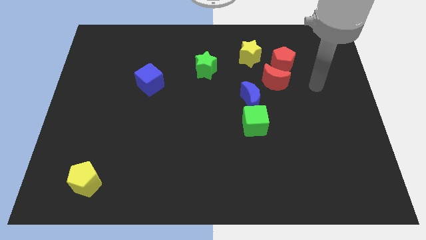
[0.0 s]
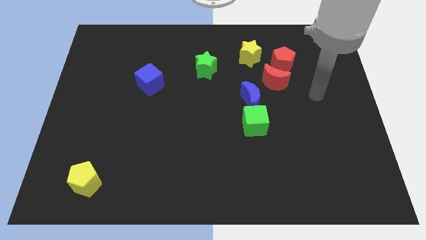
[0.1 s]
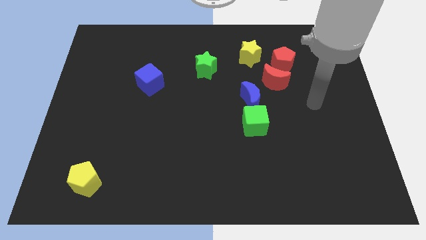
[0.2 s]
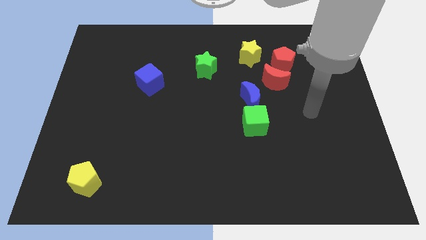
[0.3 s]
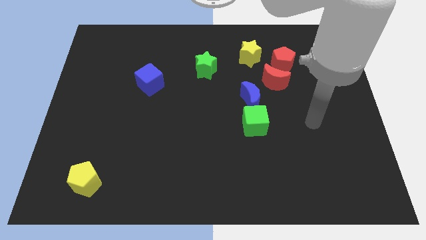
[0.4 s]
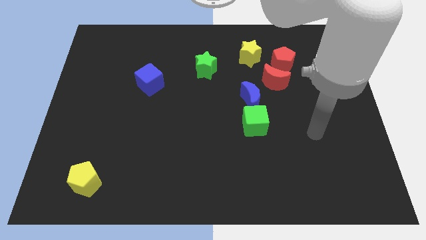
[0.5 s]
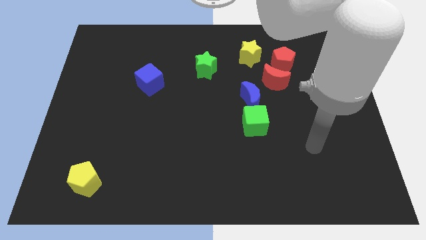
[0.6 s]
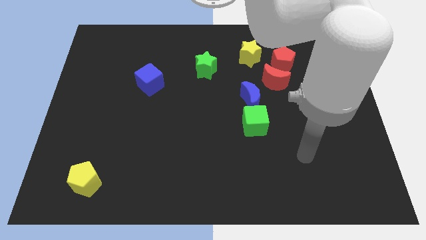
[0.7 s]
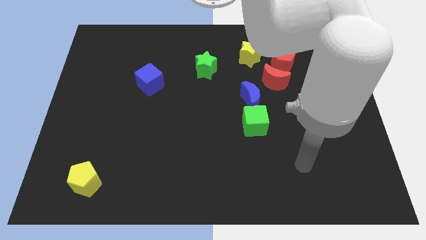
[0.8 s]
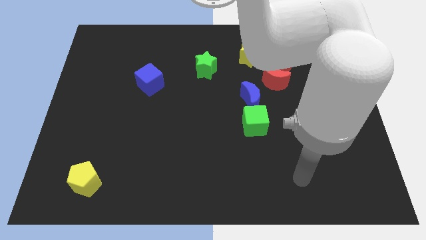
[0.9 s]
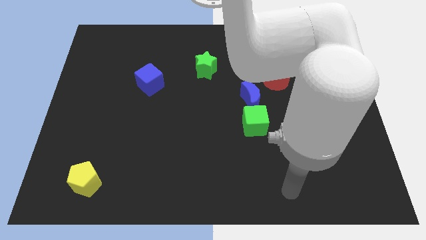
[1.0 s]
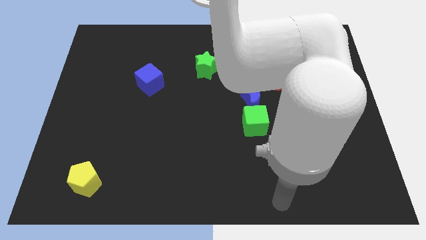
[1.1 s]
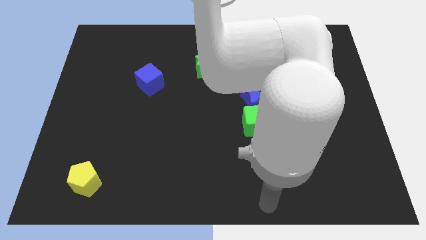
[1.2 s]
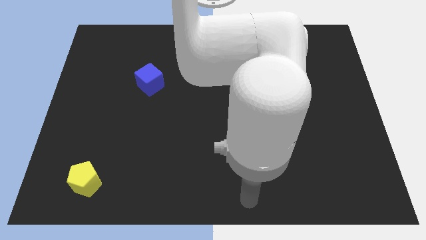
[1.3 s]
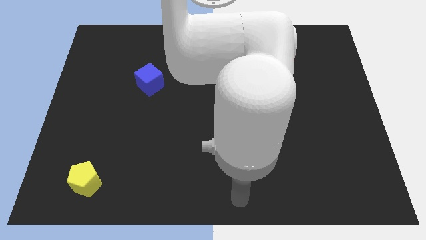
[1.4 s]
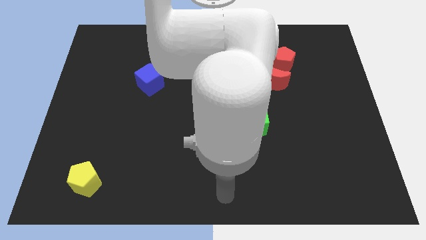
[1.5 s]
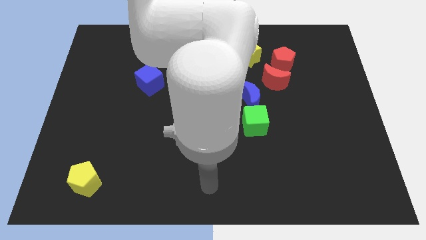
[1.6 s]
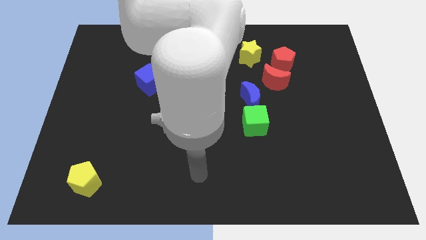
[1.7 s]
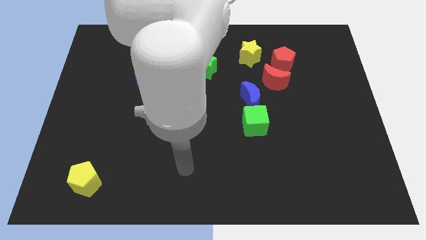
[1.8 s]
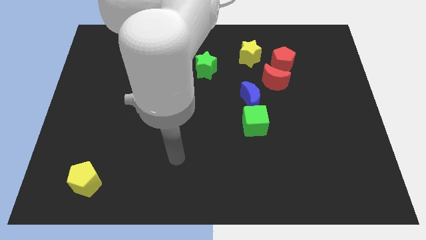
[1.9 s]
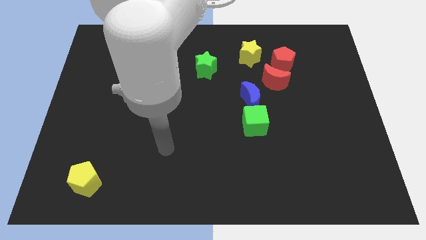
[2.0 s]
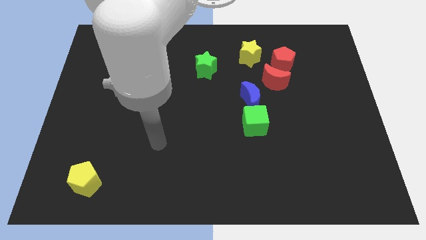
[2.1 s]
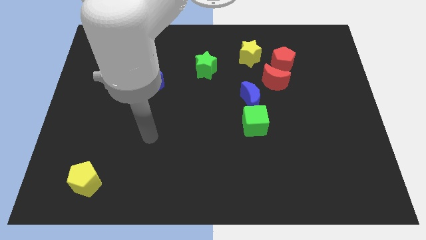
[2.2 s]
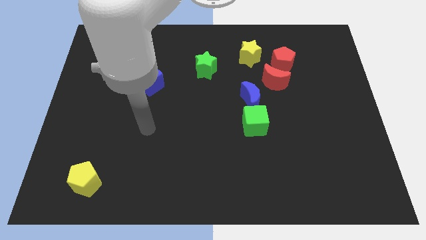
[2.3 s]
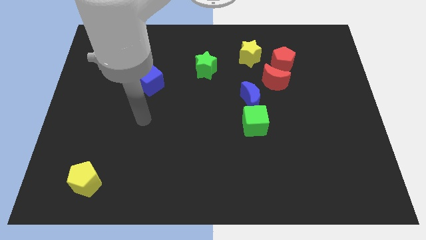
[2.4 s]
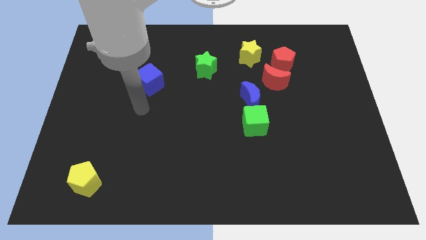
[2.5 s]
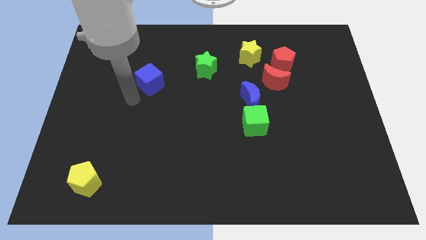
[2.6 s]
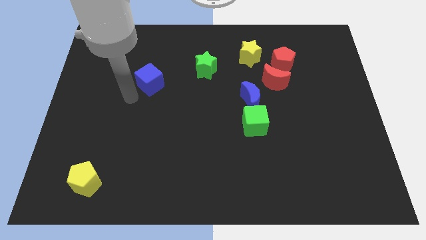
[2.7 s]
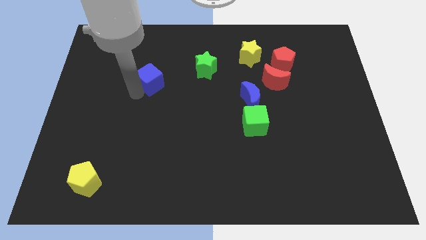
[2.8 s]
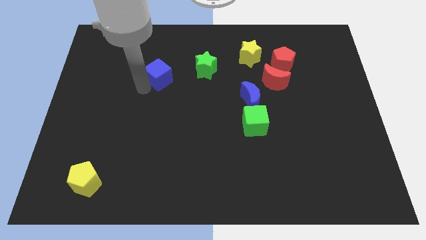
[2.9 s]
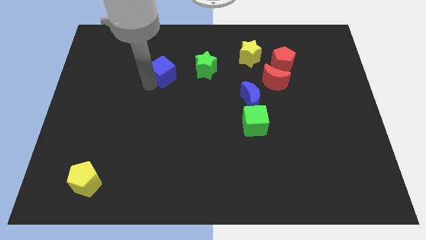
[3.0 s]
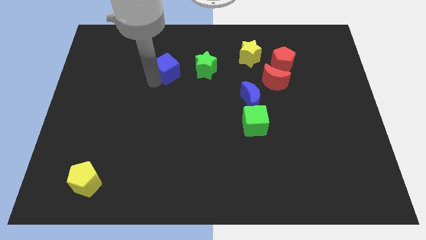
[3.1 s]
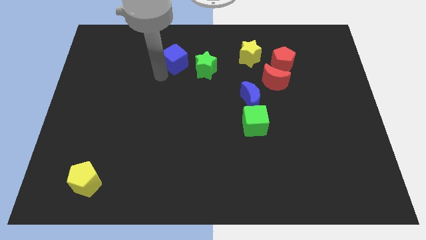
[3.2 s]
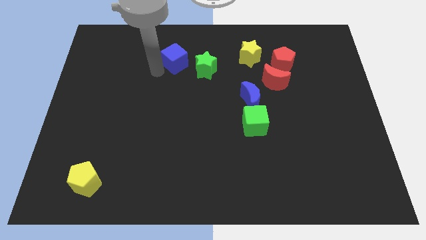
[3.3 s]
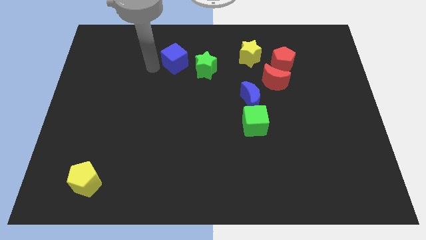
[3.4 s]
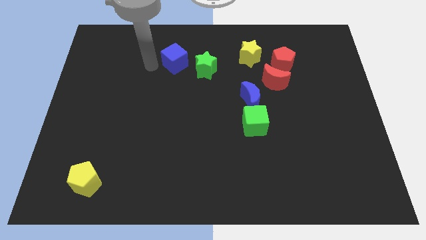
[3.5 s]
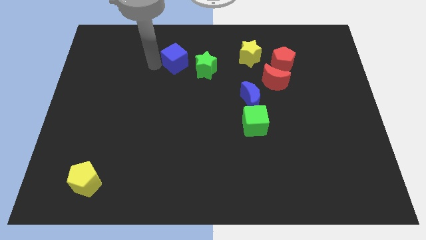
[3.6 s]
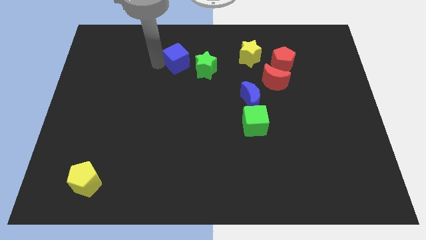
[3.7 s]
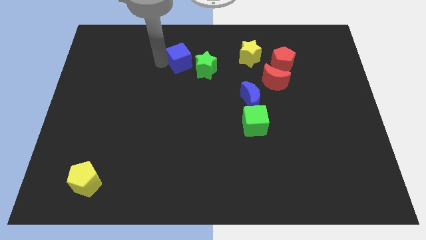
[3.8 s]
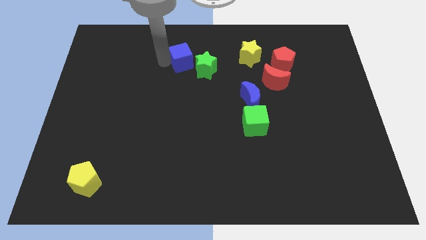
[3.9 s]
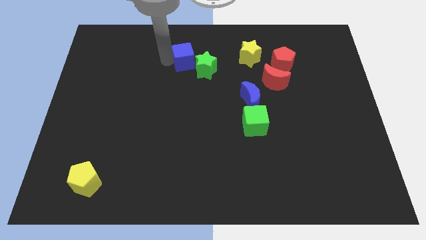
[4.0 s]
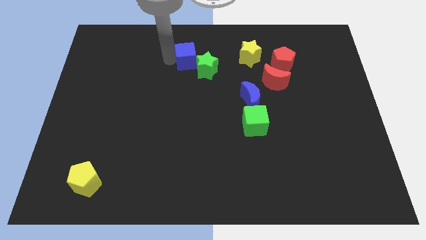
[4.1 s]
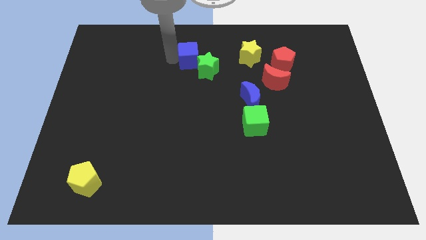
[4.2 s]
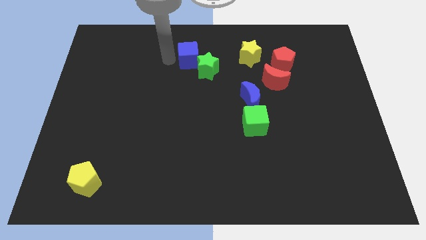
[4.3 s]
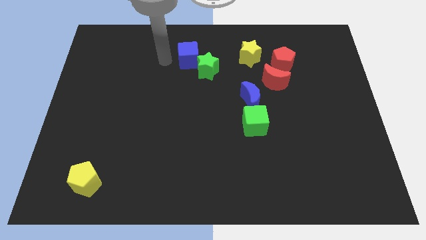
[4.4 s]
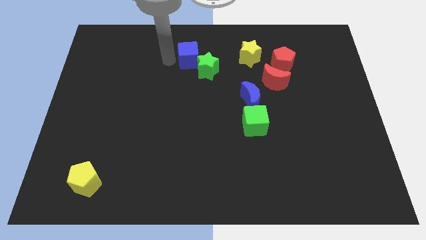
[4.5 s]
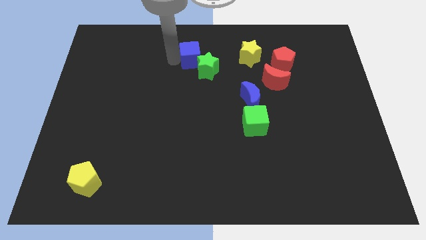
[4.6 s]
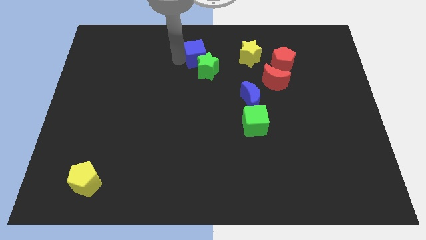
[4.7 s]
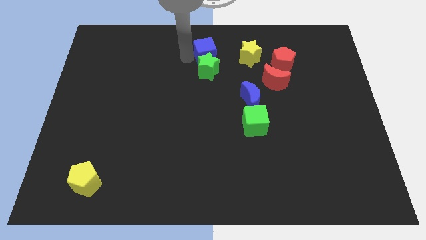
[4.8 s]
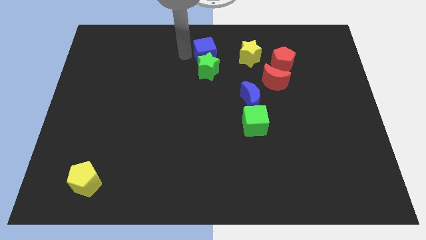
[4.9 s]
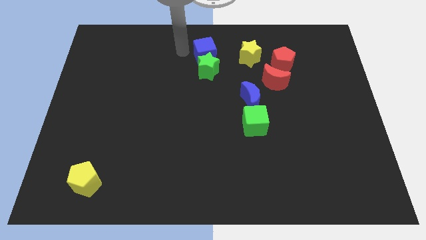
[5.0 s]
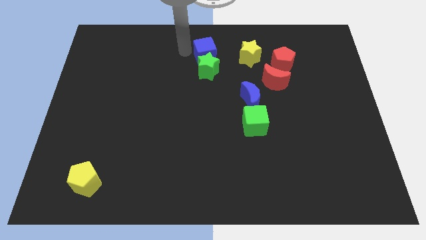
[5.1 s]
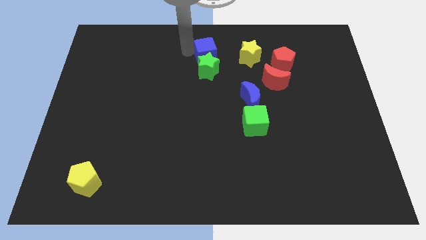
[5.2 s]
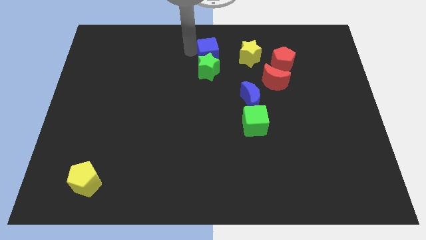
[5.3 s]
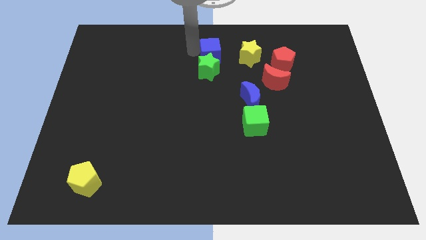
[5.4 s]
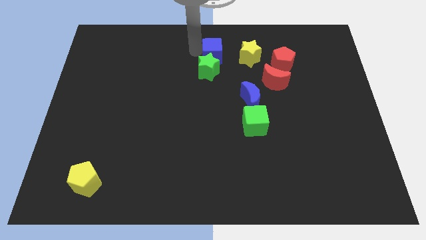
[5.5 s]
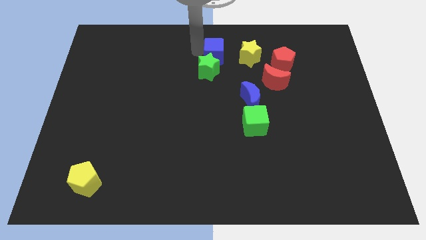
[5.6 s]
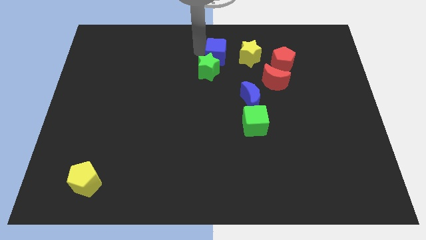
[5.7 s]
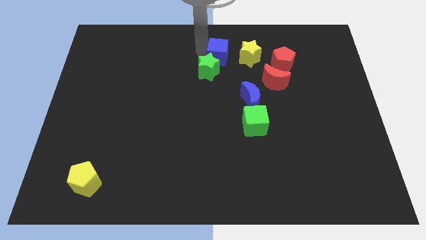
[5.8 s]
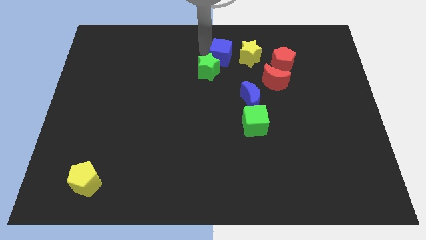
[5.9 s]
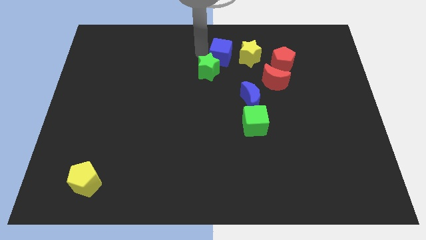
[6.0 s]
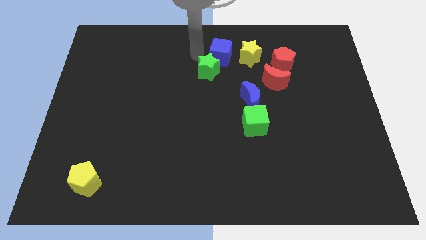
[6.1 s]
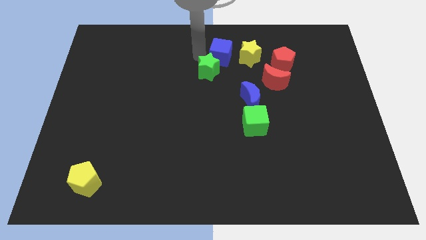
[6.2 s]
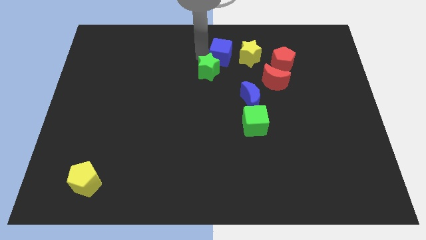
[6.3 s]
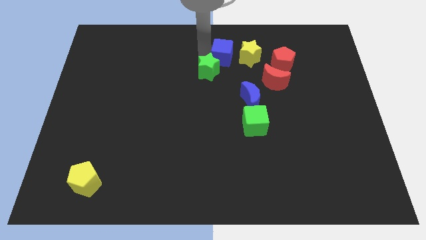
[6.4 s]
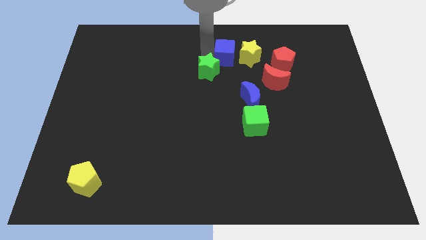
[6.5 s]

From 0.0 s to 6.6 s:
move the blue cube to the yellow star

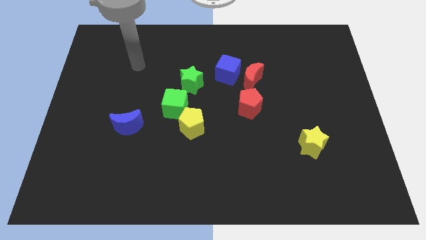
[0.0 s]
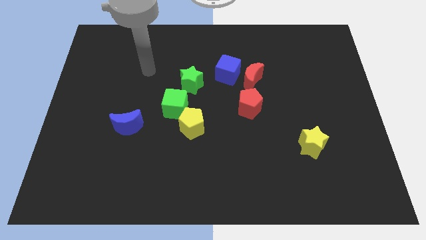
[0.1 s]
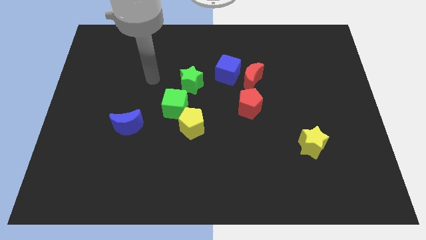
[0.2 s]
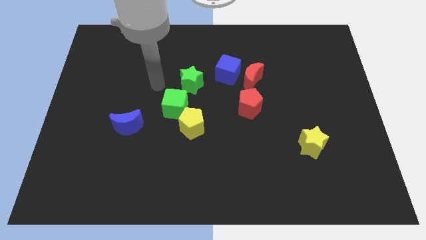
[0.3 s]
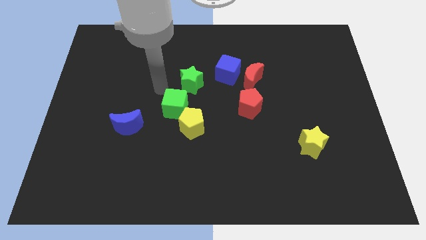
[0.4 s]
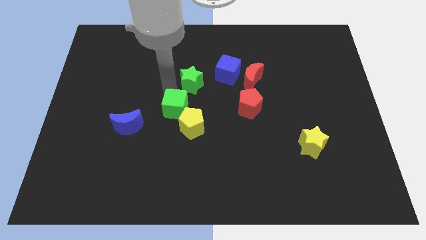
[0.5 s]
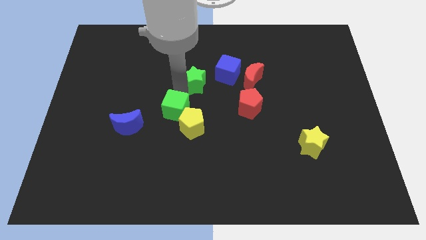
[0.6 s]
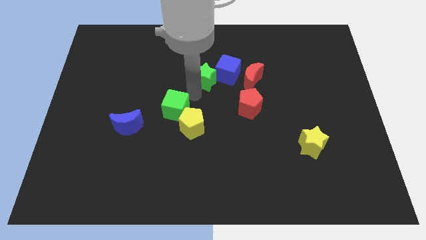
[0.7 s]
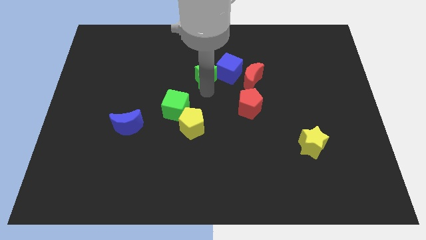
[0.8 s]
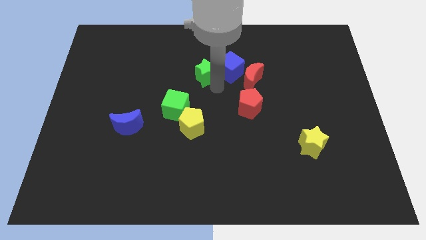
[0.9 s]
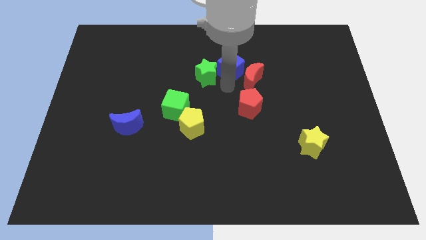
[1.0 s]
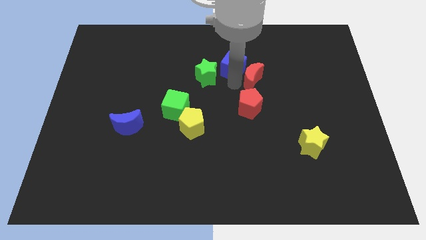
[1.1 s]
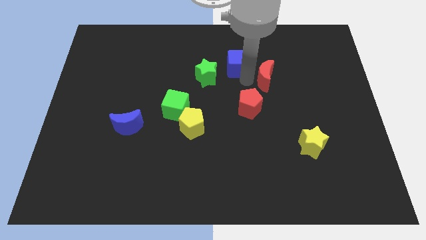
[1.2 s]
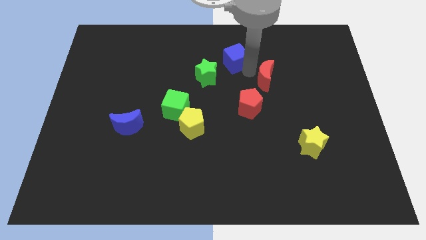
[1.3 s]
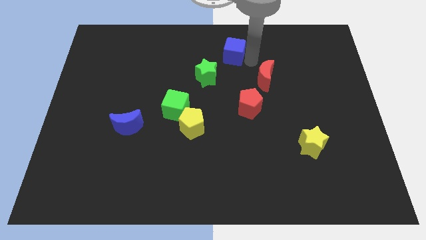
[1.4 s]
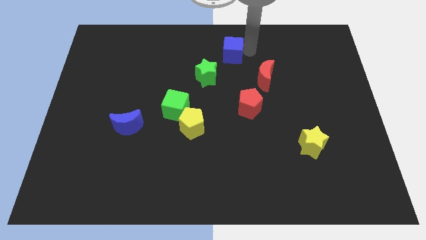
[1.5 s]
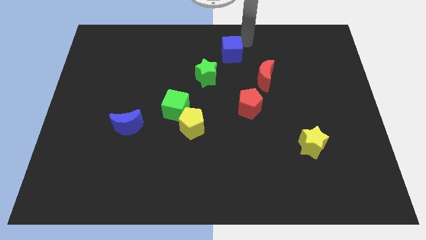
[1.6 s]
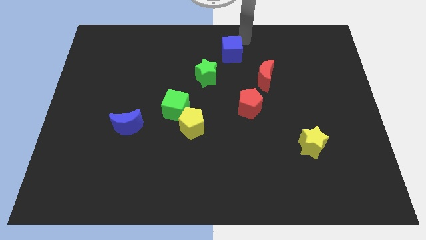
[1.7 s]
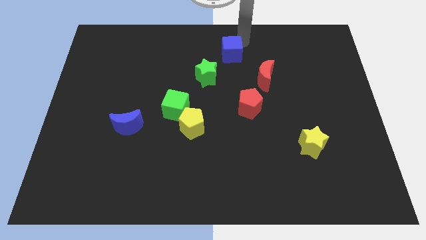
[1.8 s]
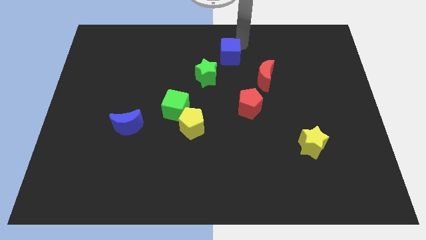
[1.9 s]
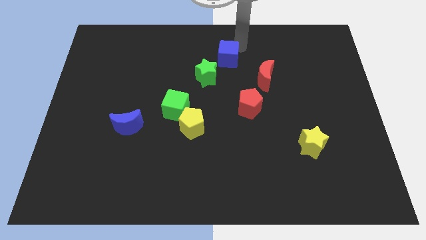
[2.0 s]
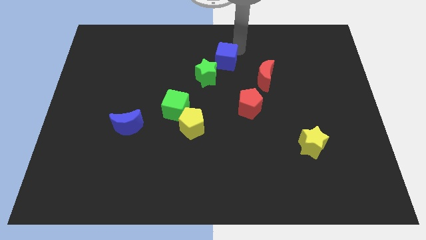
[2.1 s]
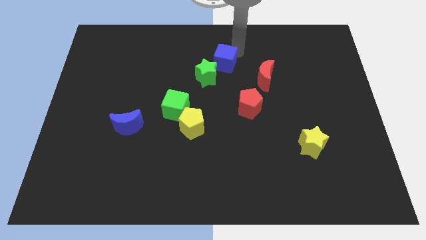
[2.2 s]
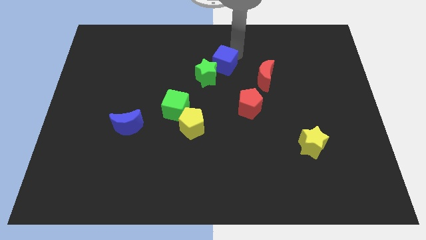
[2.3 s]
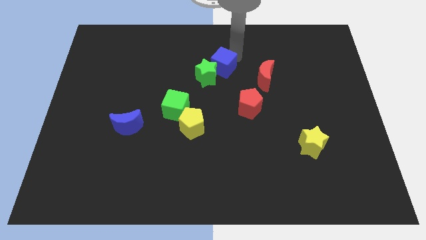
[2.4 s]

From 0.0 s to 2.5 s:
push the blue cube to the green star
